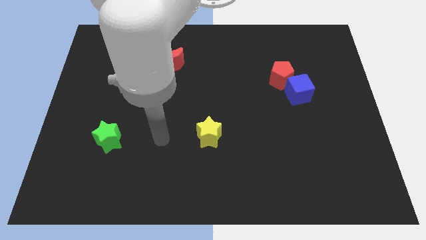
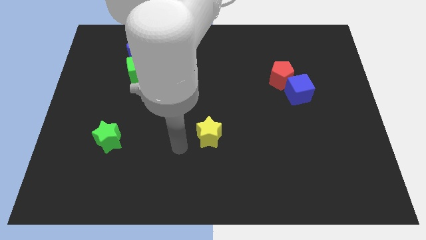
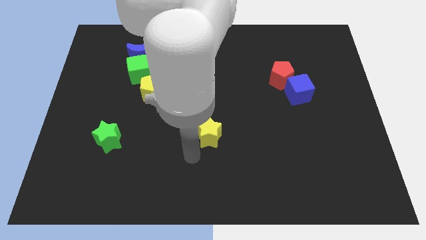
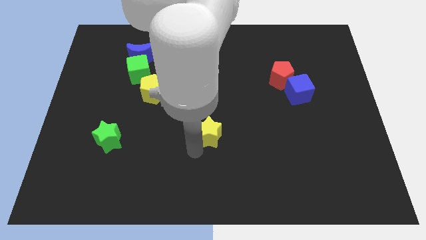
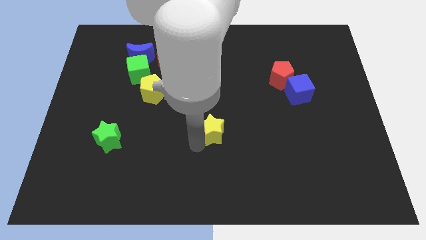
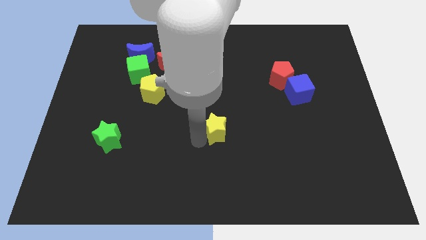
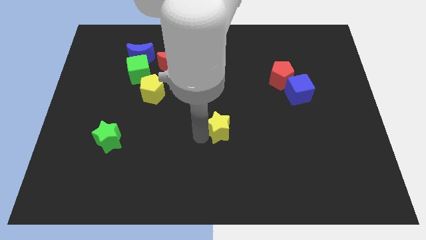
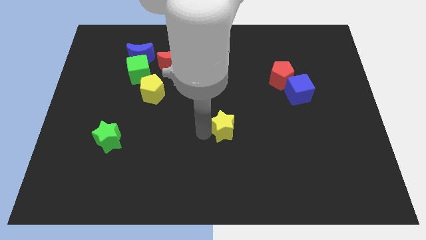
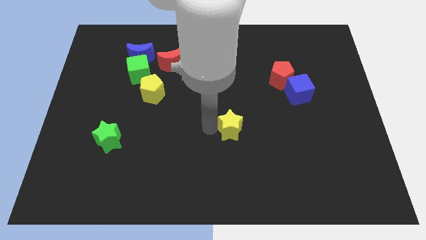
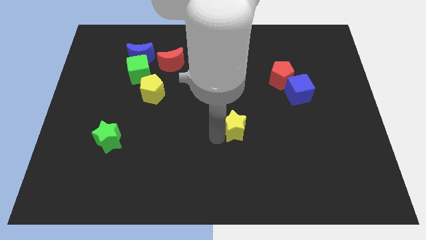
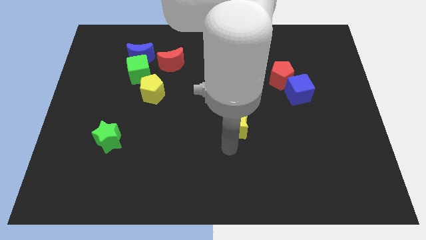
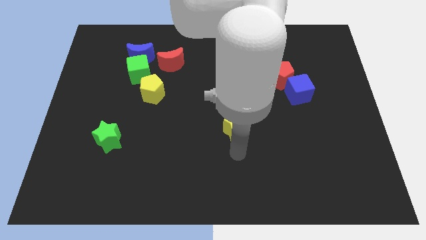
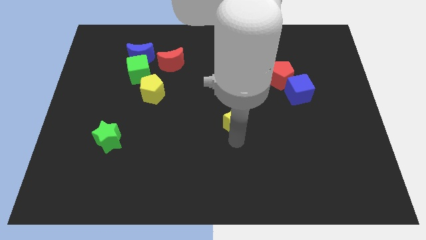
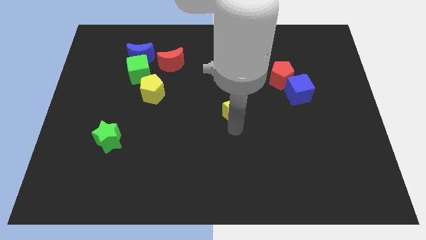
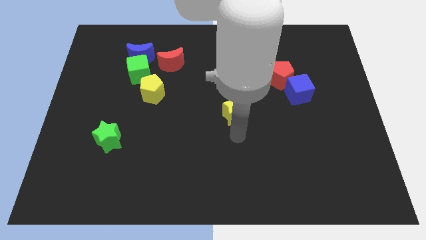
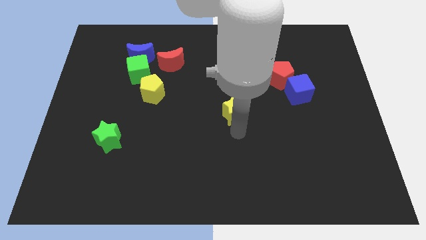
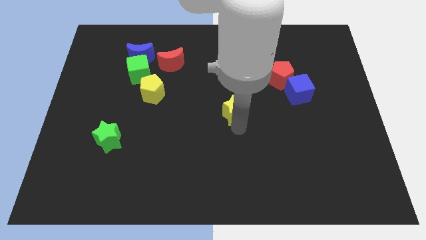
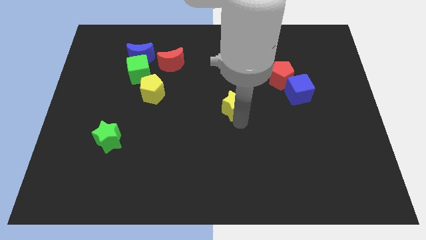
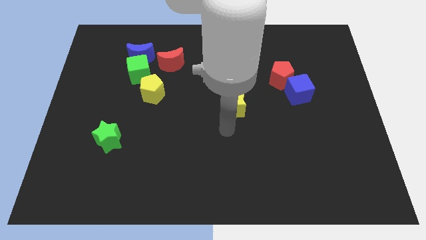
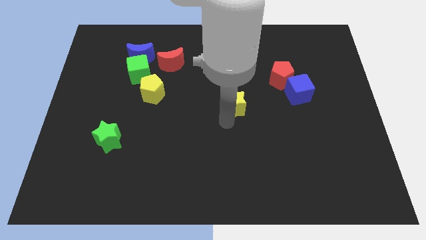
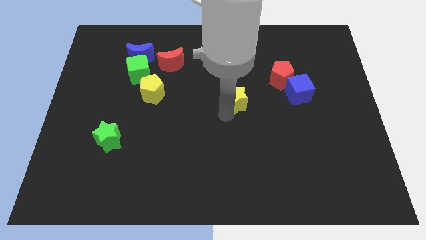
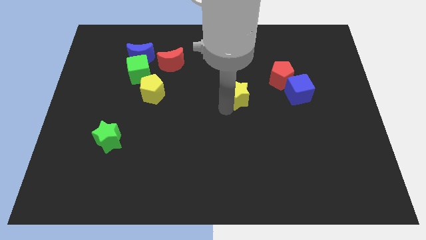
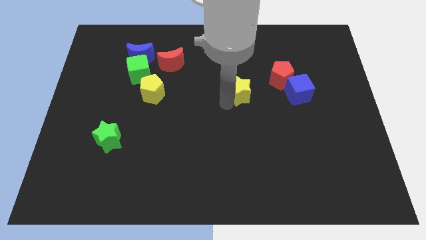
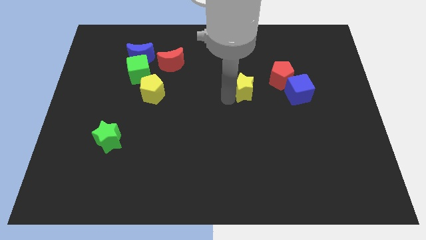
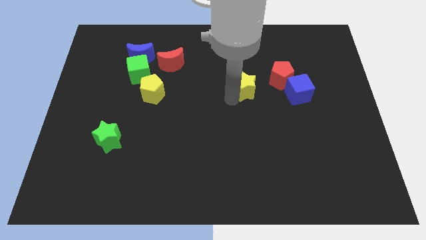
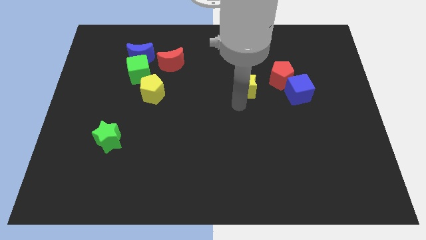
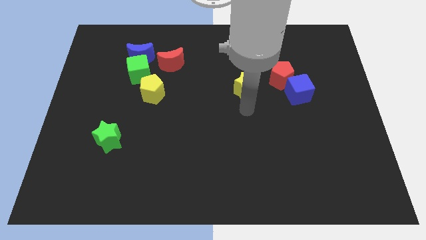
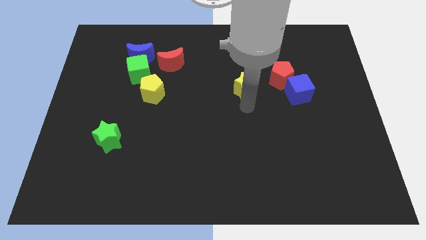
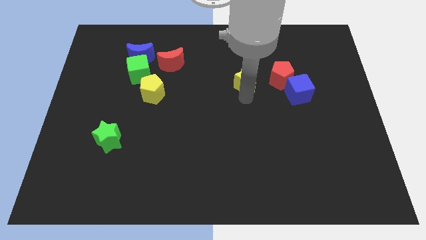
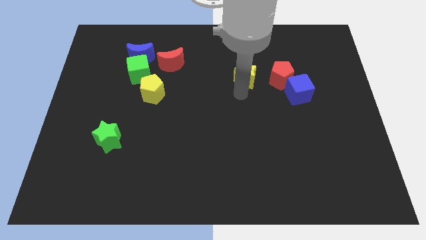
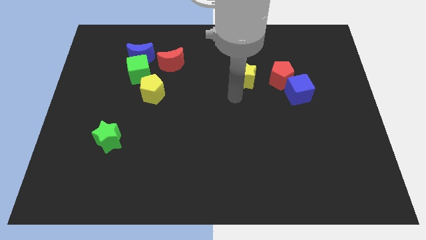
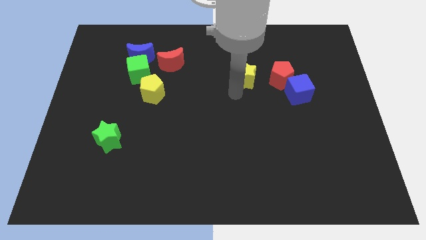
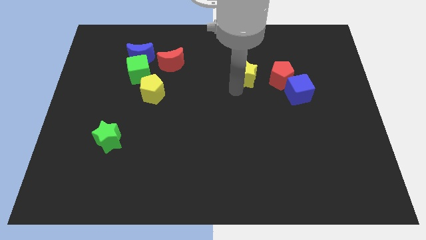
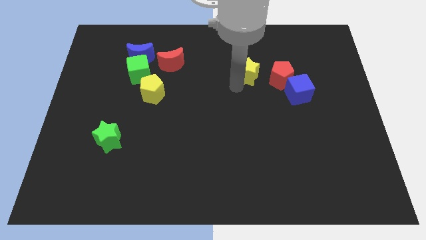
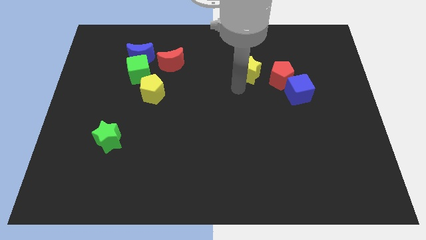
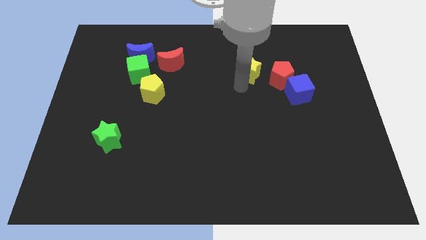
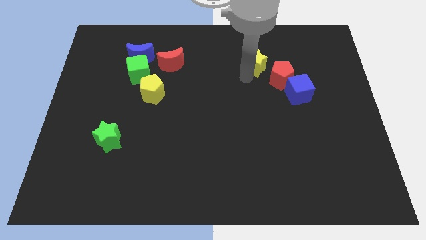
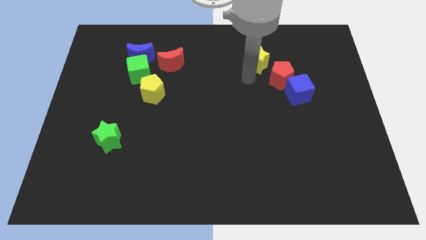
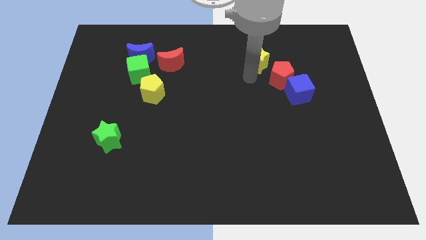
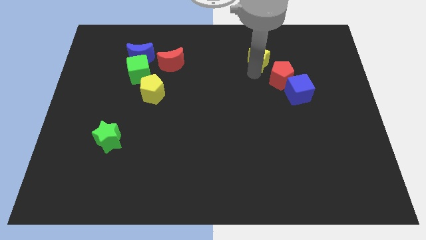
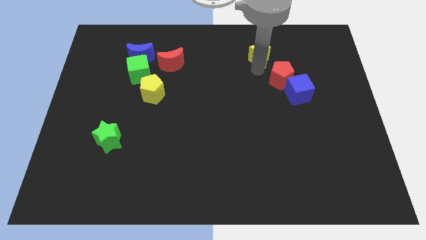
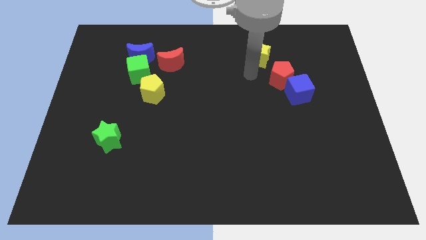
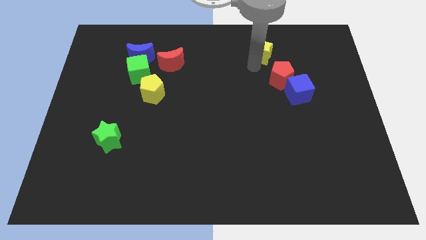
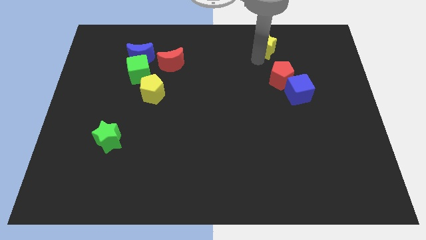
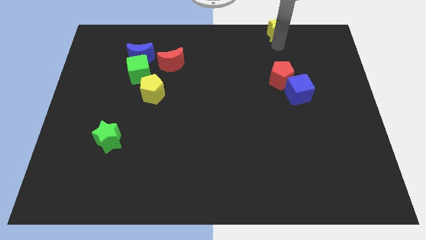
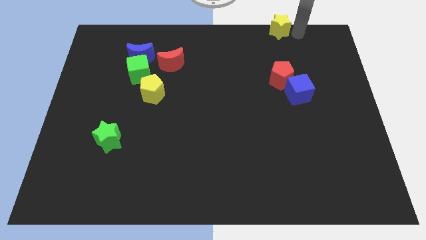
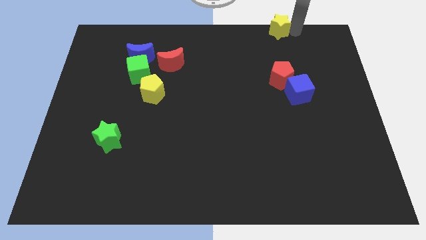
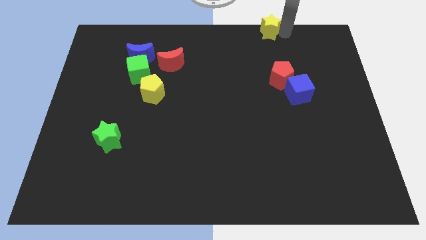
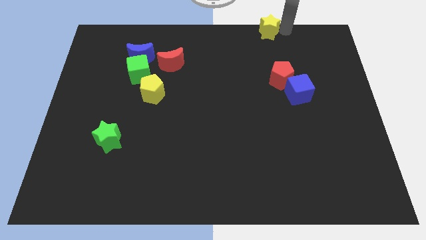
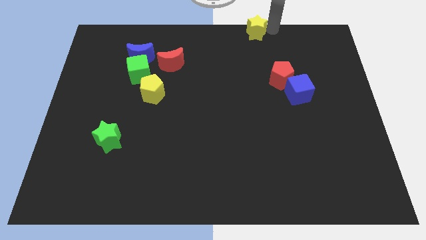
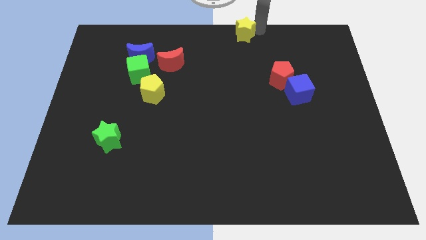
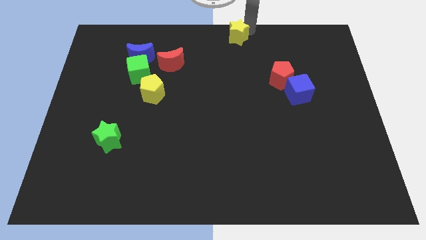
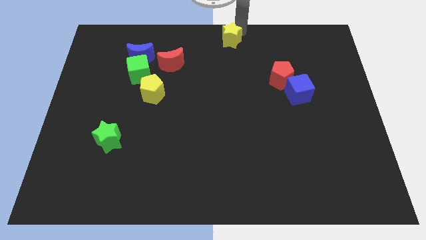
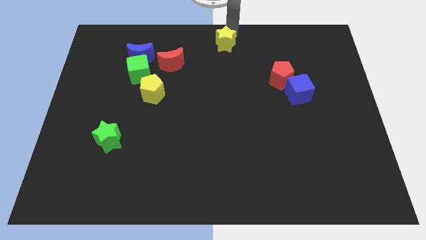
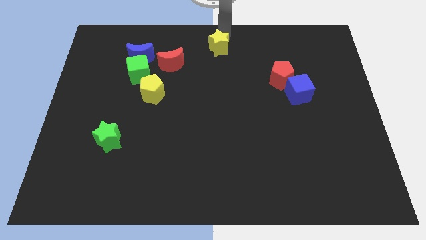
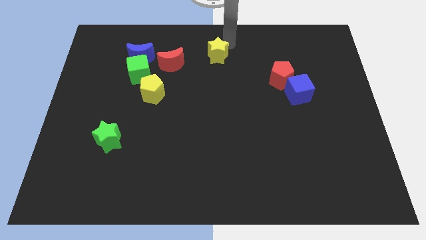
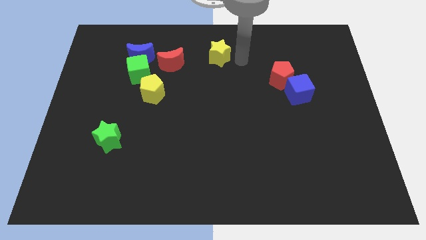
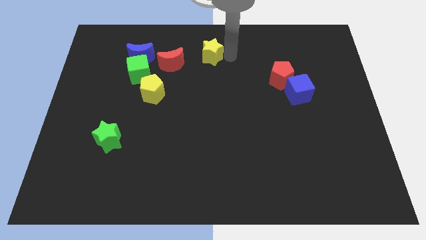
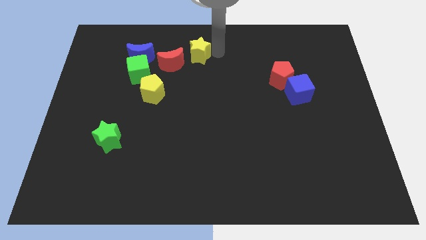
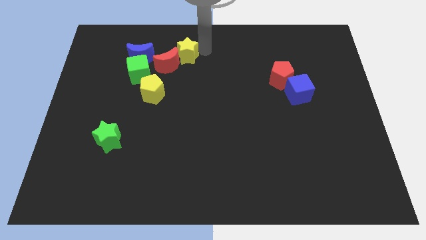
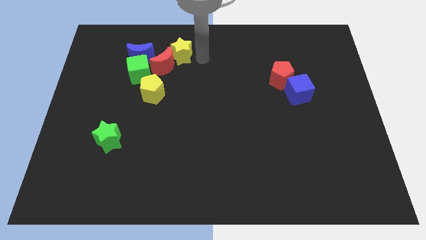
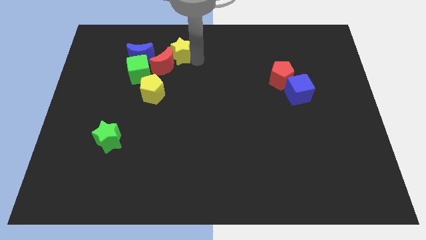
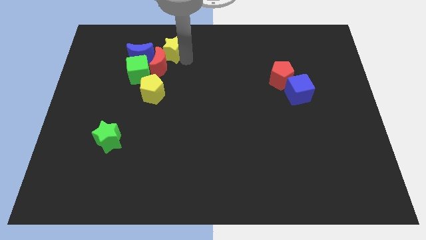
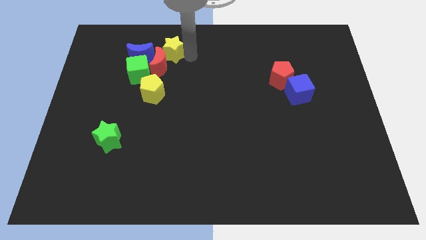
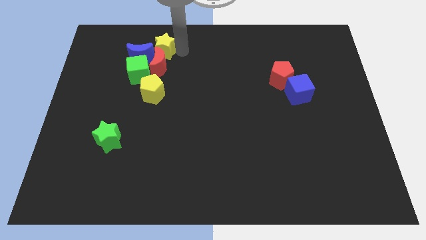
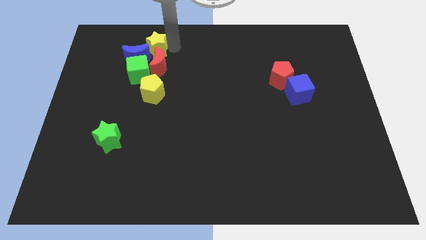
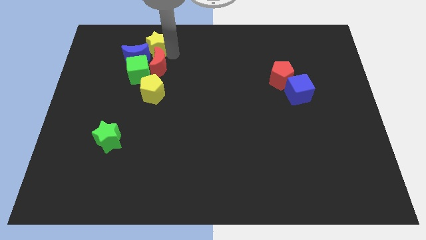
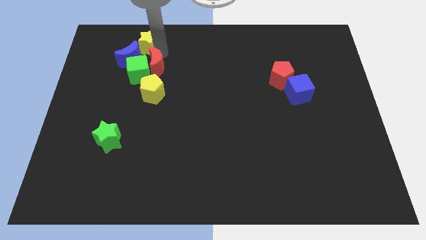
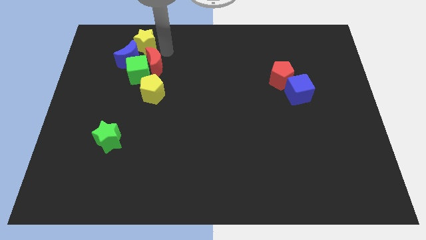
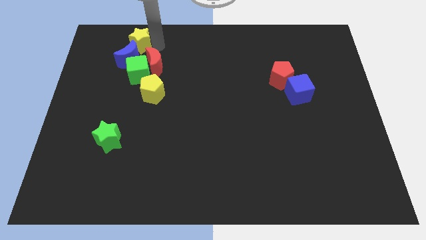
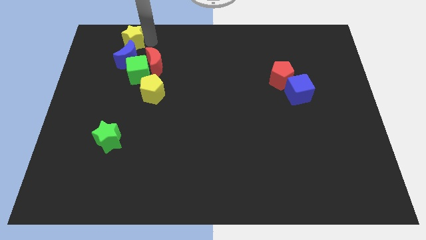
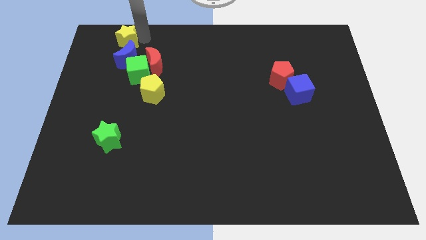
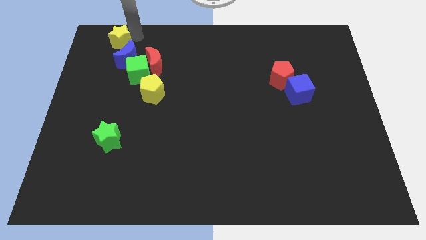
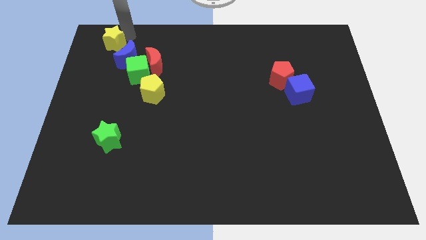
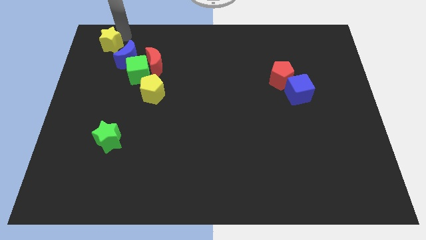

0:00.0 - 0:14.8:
move the yellow star to the top left of the board
